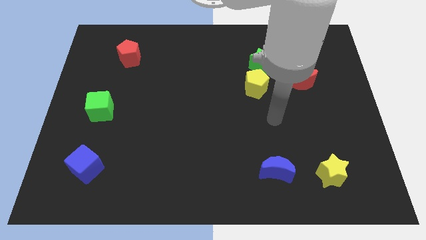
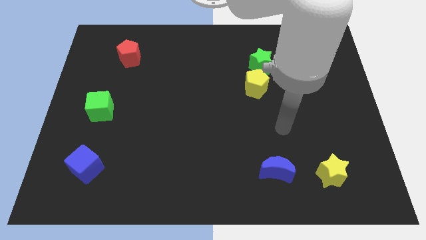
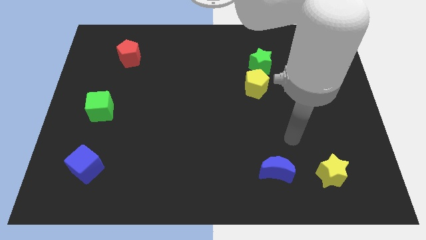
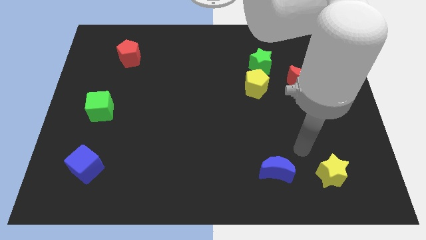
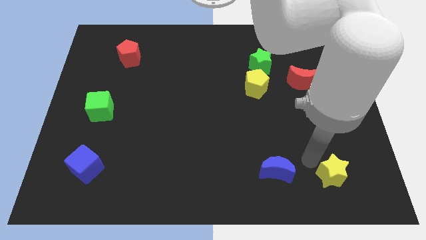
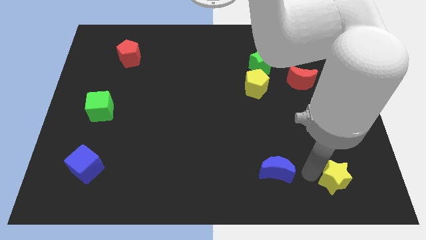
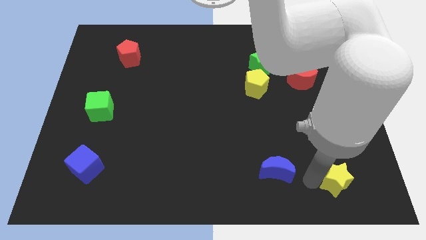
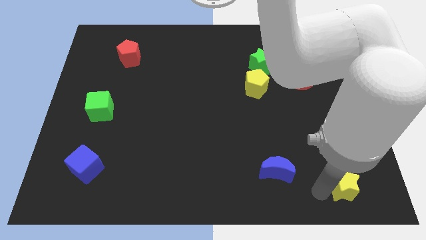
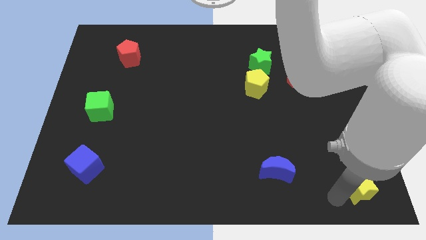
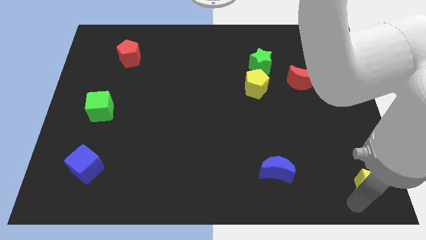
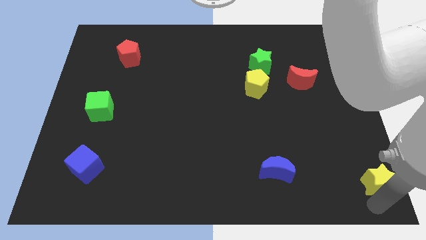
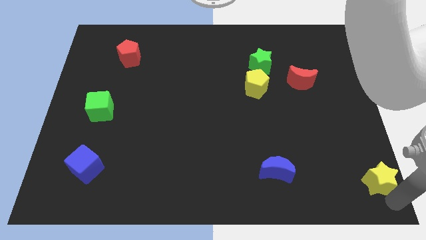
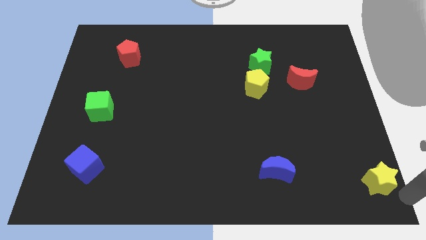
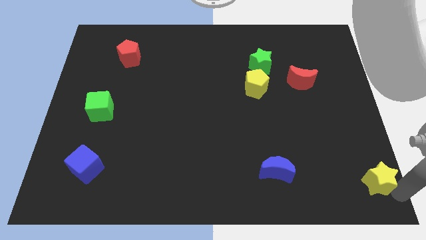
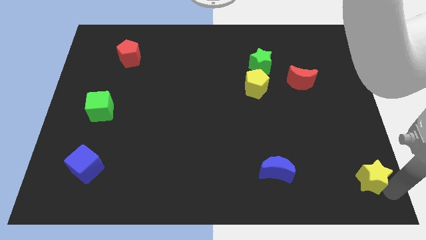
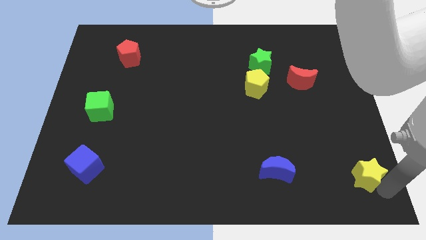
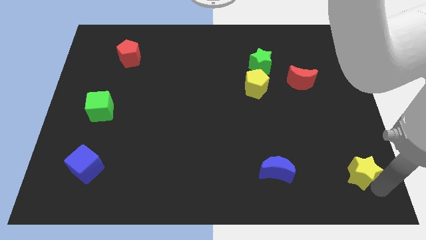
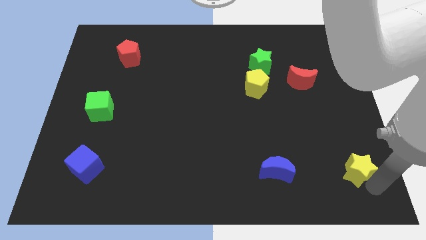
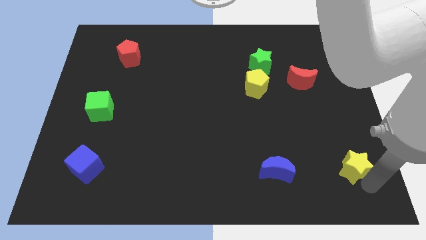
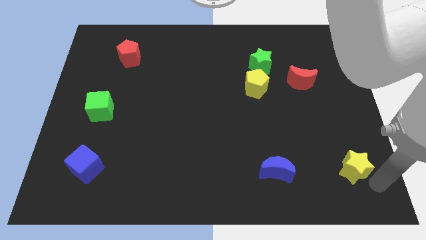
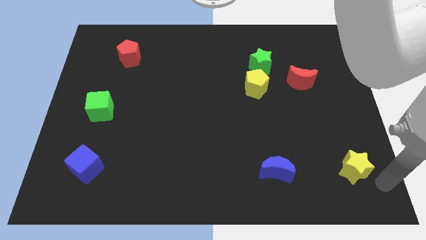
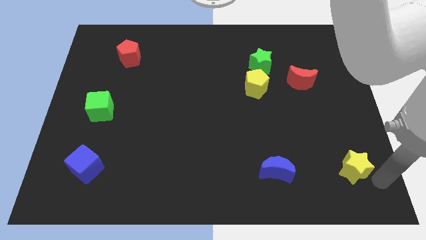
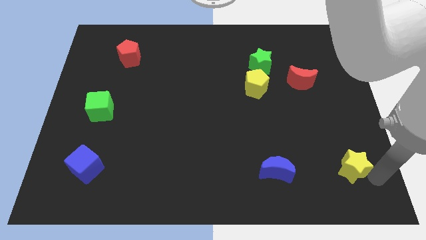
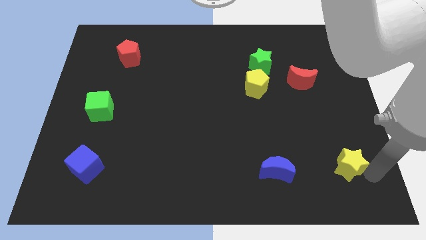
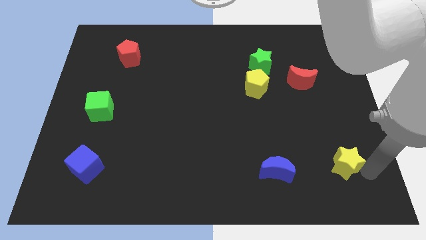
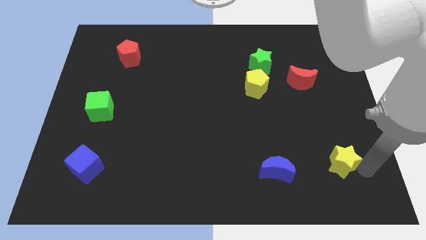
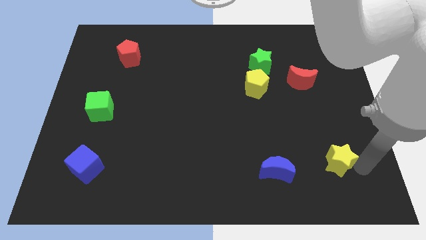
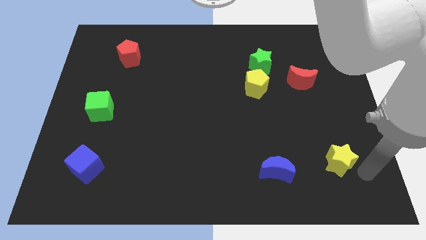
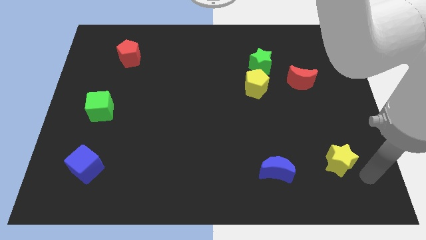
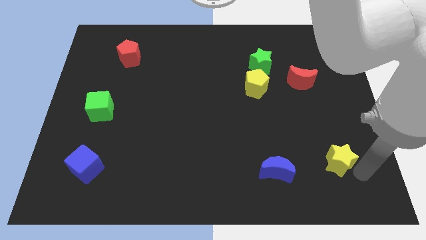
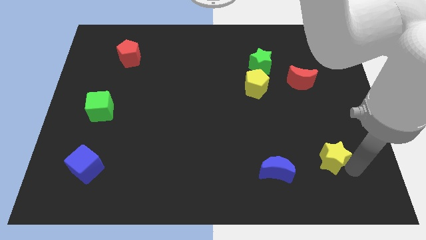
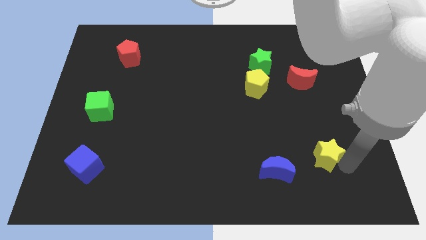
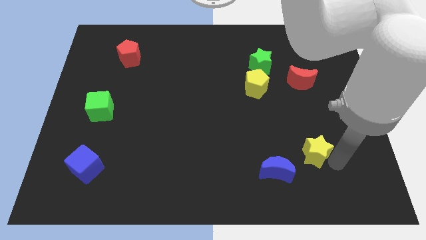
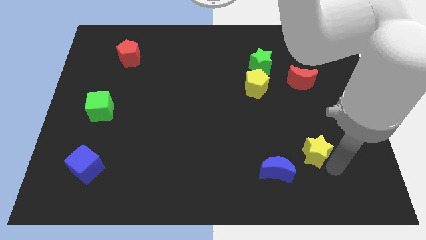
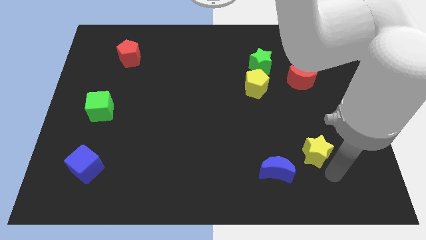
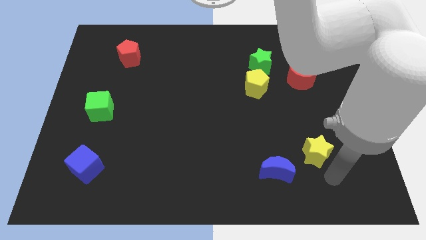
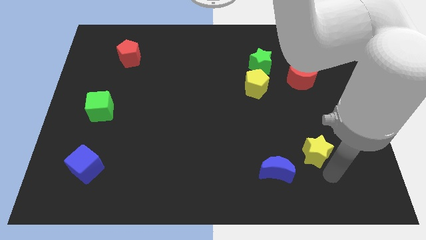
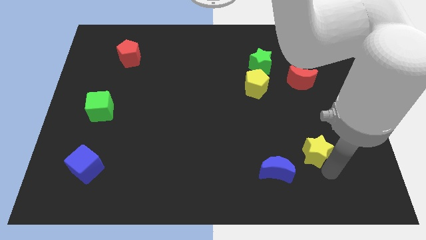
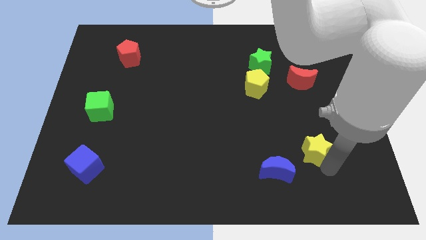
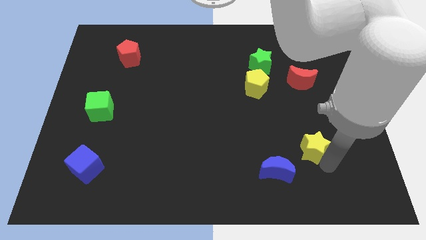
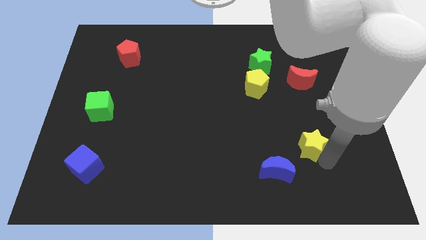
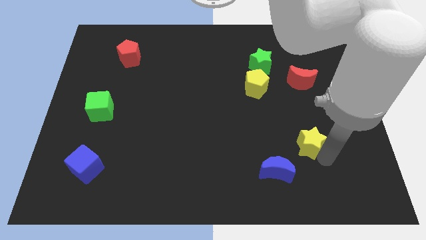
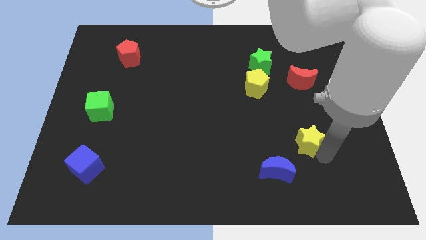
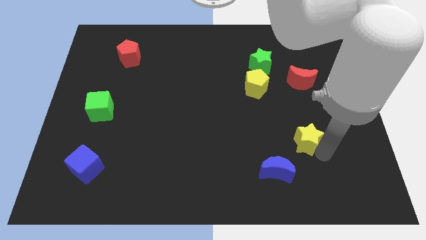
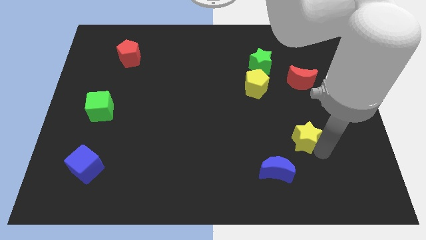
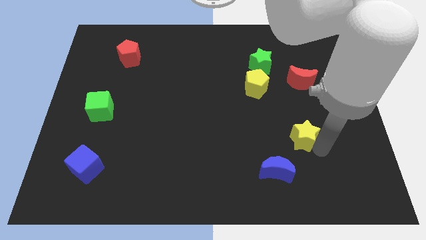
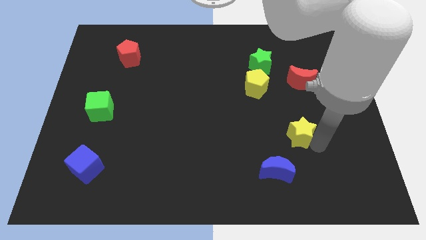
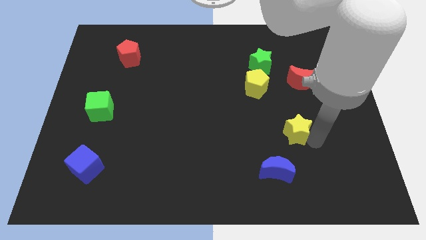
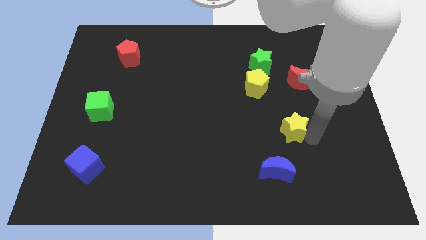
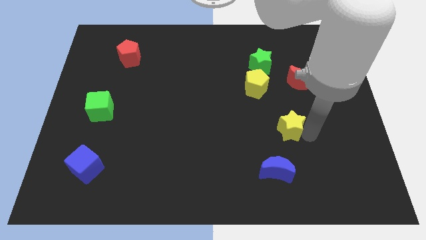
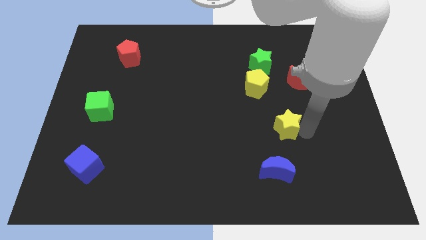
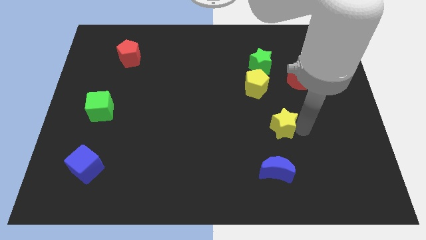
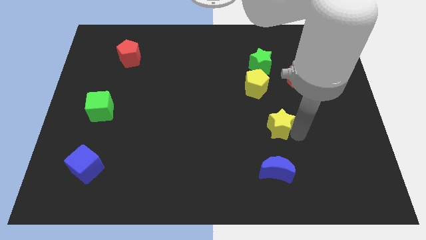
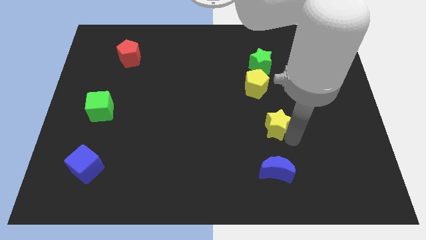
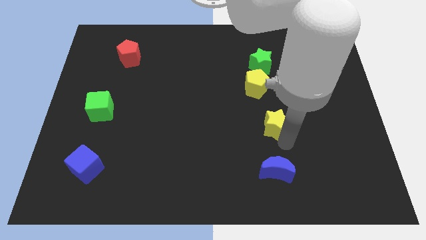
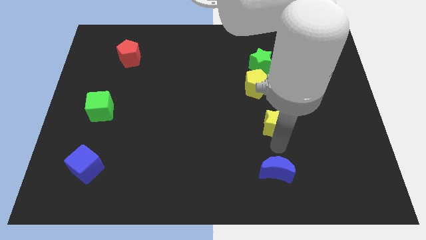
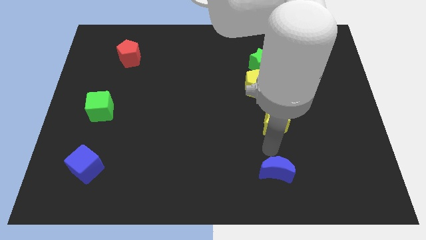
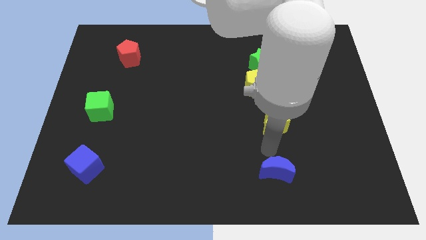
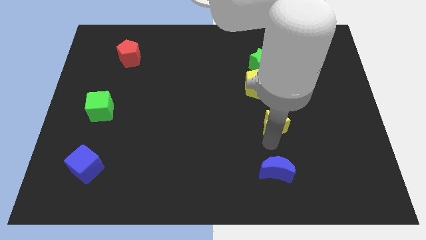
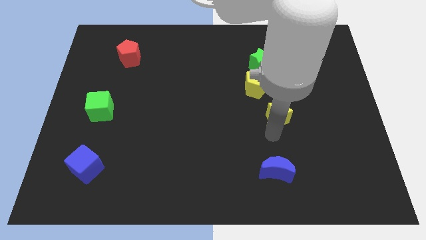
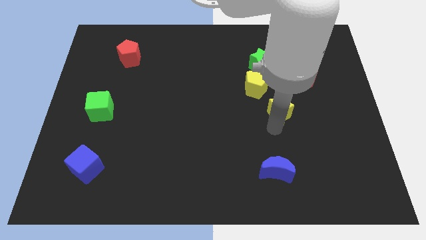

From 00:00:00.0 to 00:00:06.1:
slide the yellow star to the bottom left side of the red moon

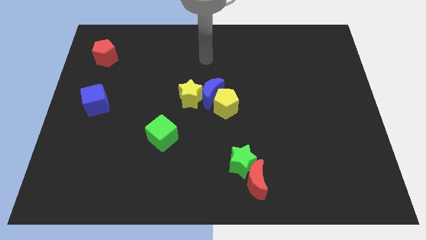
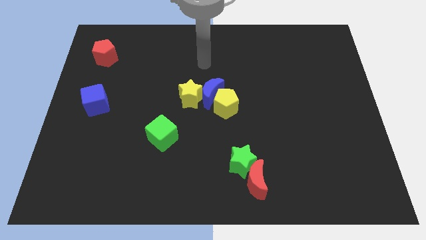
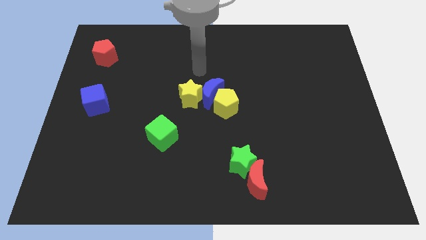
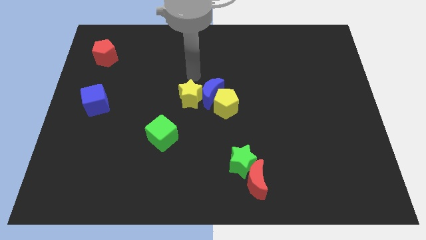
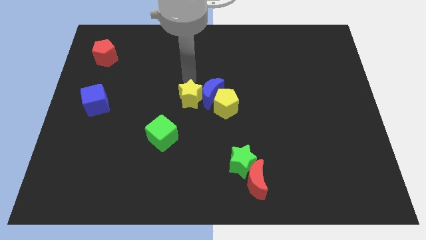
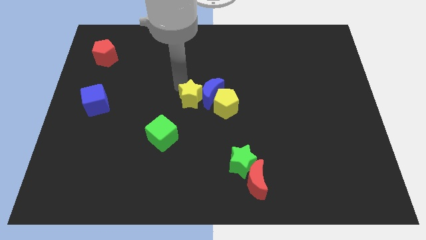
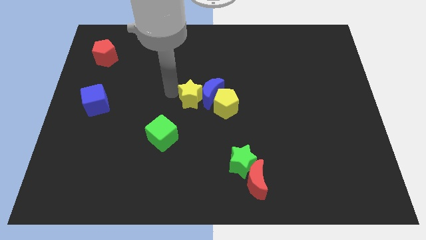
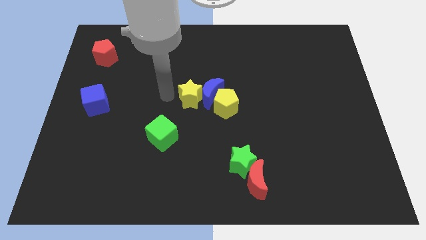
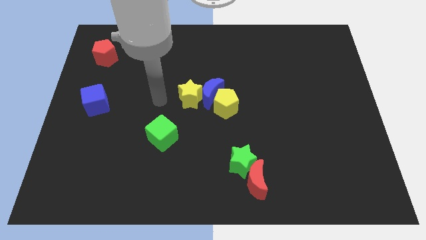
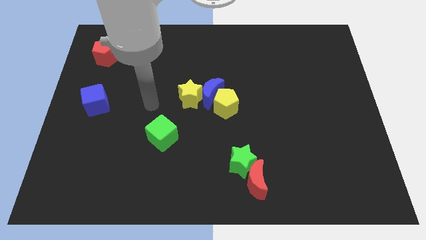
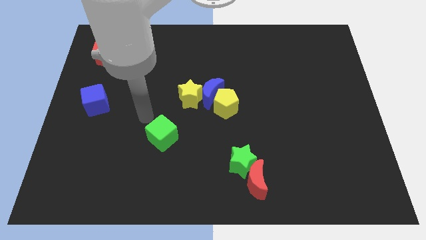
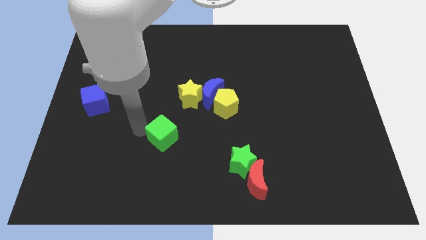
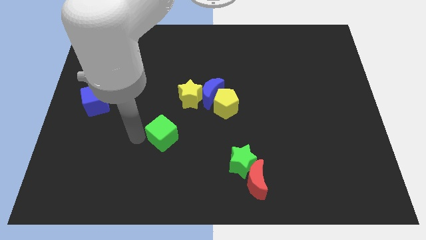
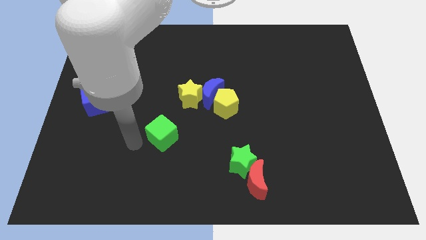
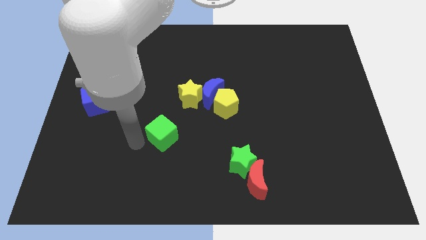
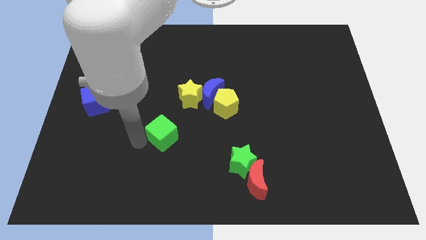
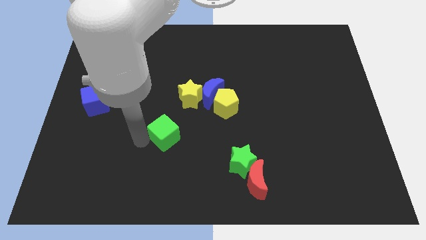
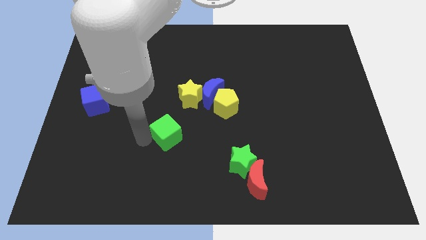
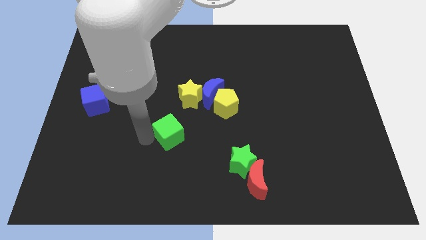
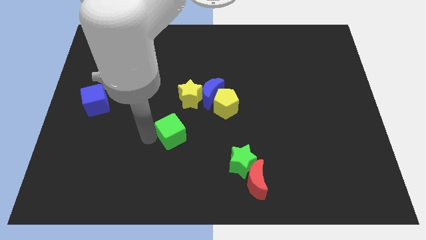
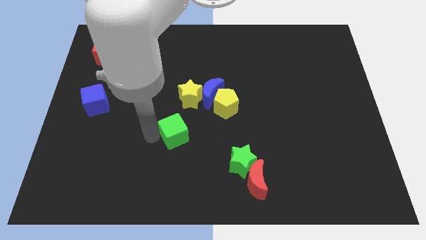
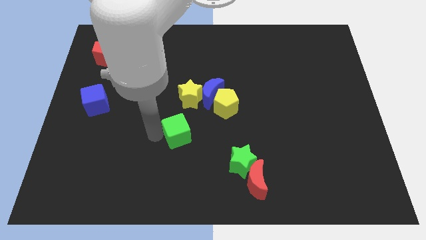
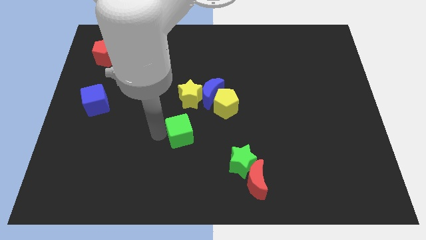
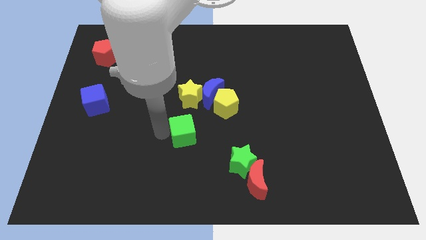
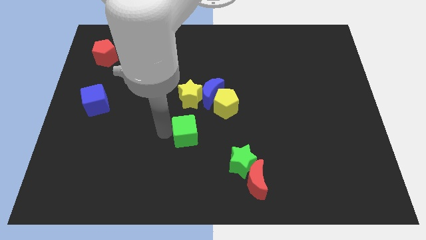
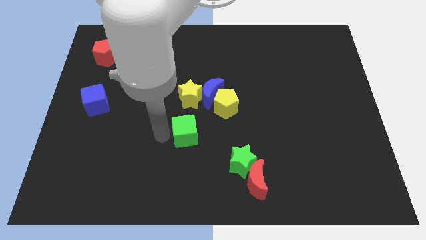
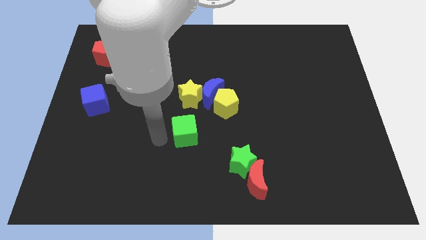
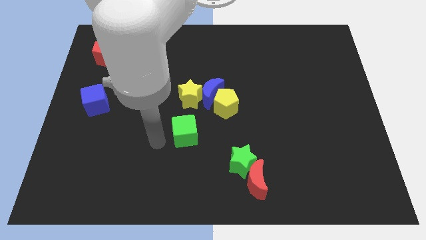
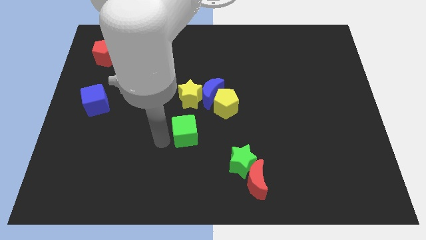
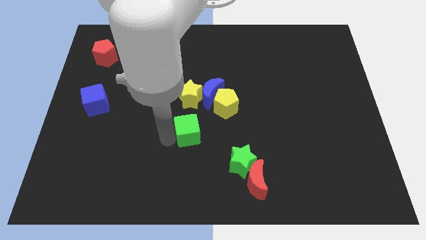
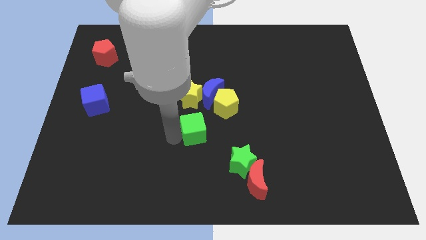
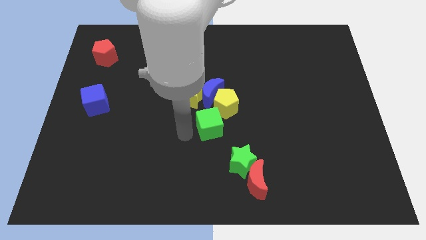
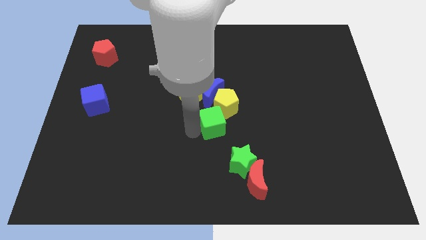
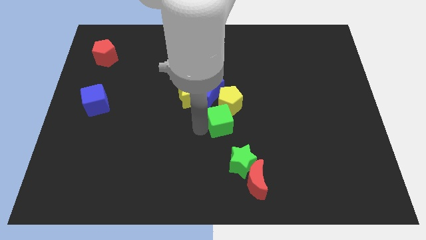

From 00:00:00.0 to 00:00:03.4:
put the green cube above the green star
